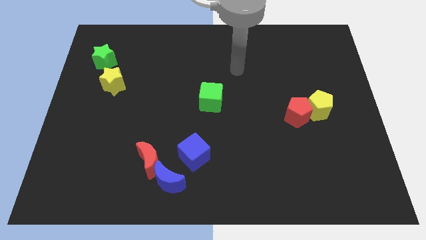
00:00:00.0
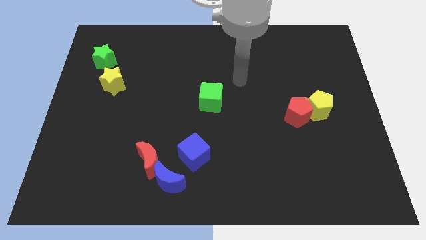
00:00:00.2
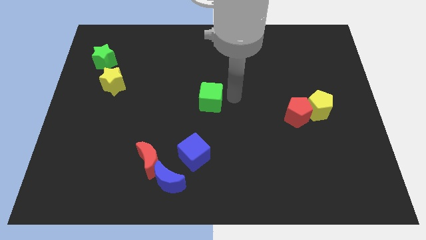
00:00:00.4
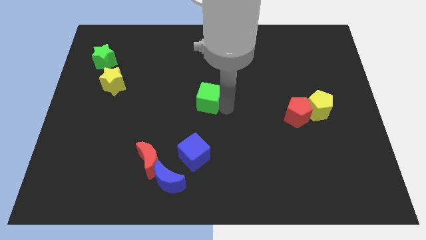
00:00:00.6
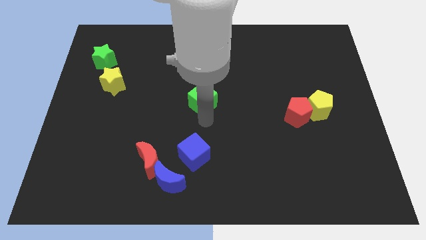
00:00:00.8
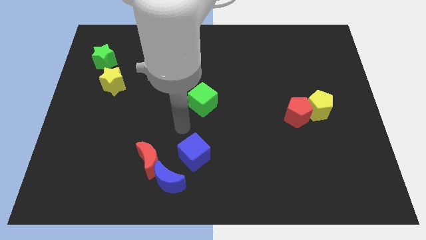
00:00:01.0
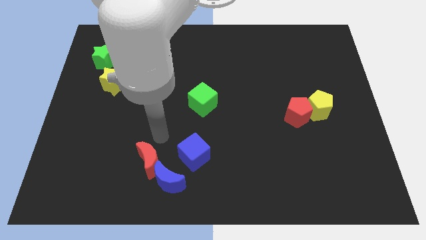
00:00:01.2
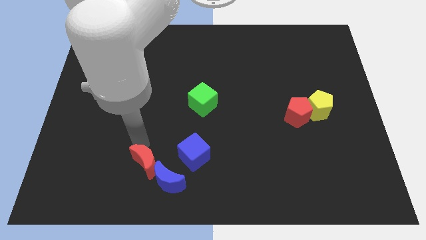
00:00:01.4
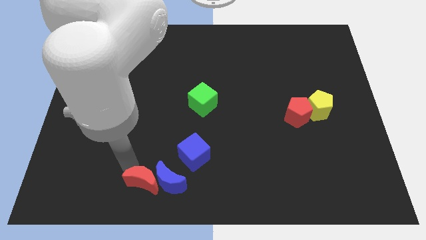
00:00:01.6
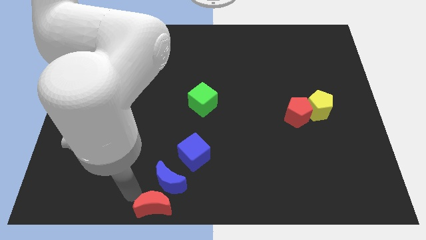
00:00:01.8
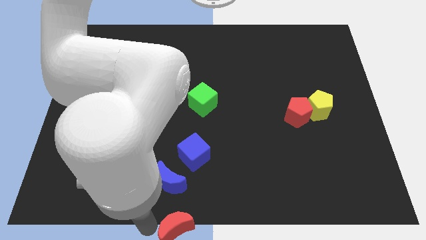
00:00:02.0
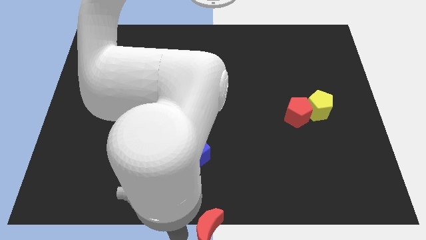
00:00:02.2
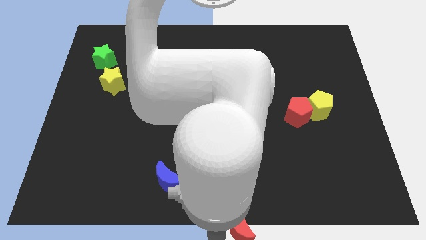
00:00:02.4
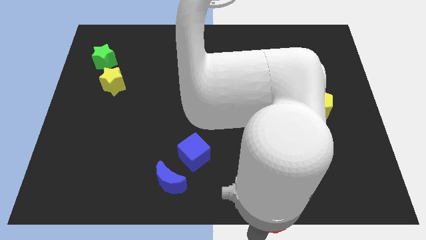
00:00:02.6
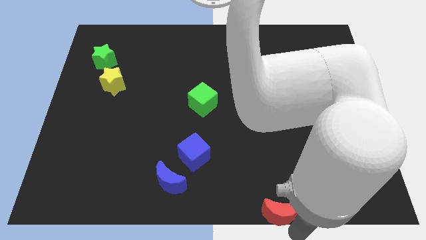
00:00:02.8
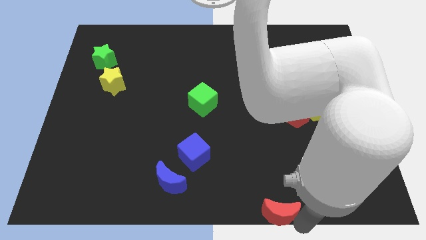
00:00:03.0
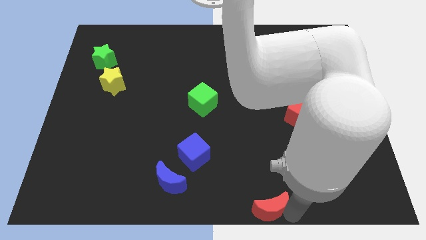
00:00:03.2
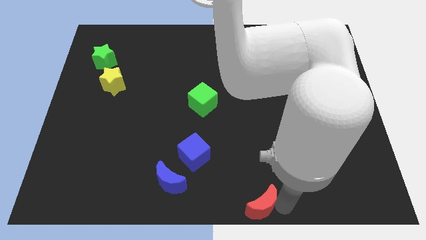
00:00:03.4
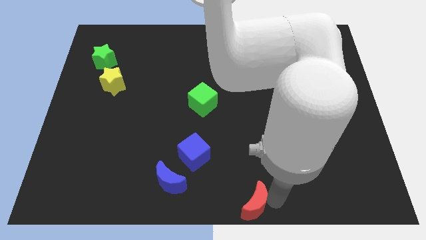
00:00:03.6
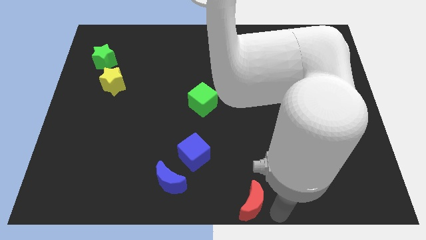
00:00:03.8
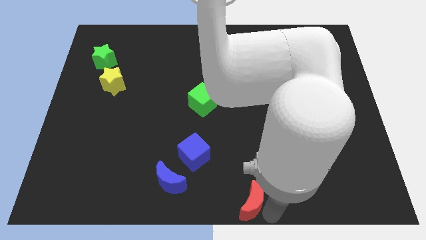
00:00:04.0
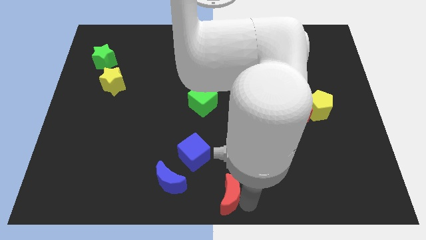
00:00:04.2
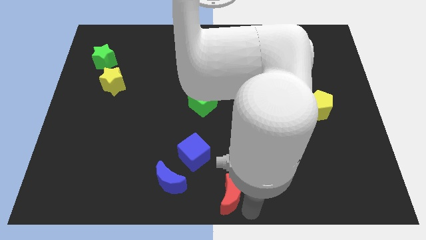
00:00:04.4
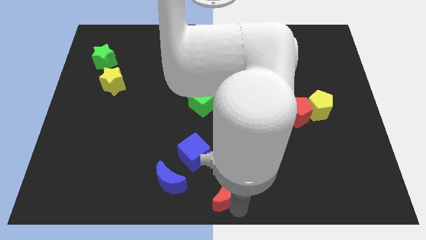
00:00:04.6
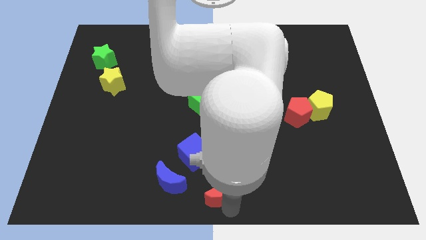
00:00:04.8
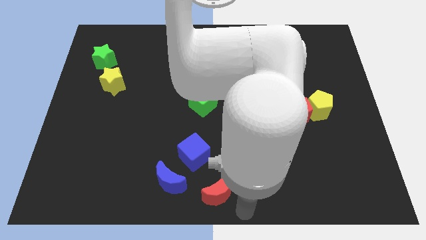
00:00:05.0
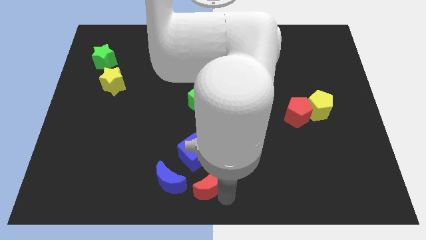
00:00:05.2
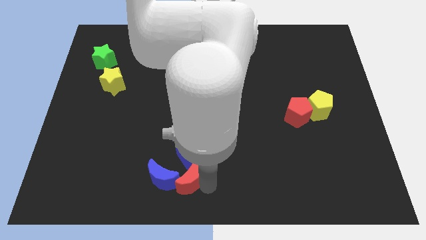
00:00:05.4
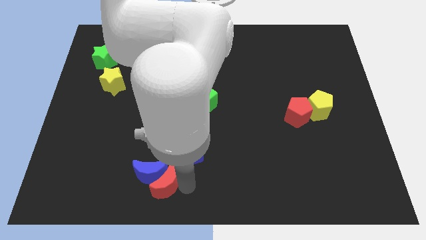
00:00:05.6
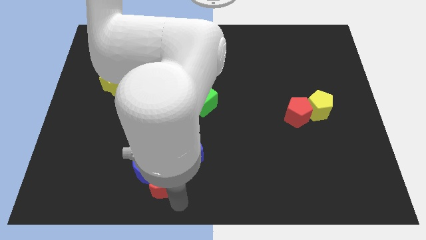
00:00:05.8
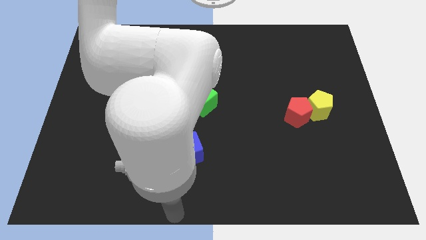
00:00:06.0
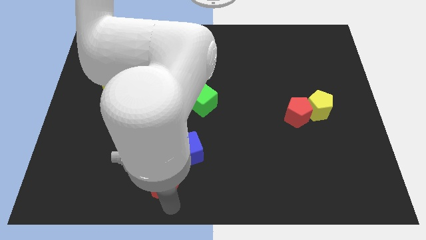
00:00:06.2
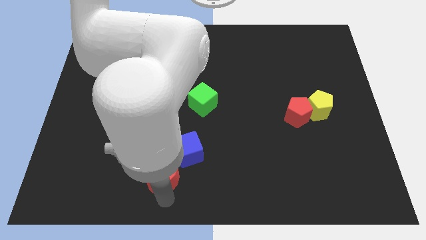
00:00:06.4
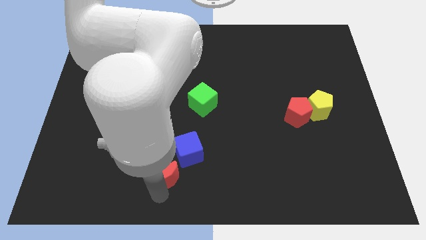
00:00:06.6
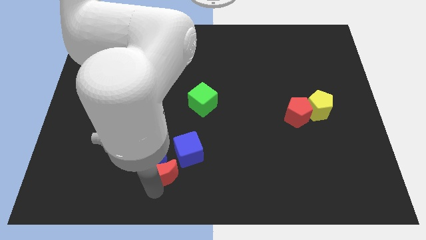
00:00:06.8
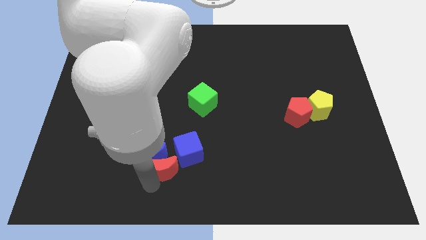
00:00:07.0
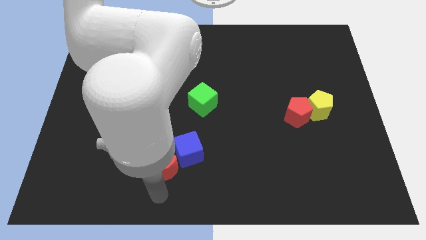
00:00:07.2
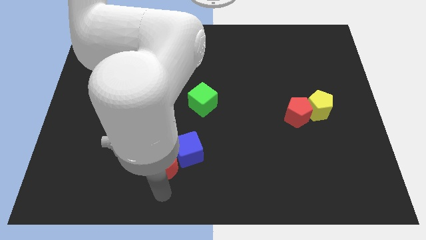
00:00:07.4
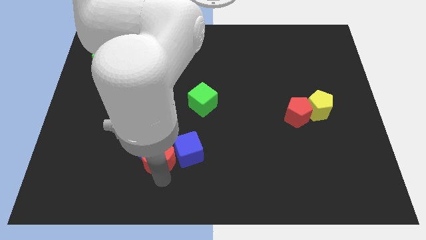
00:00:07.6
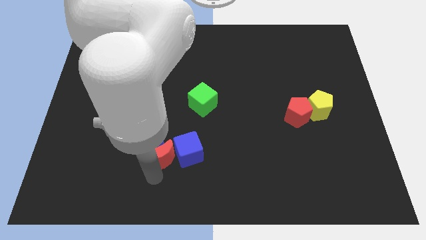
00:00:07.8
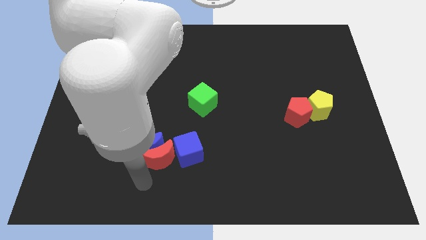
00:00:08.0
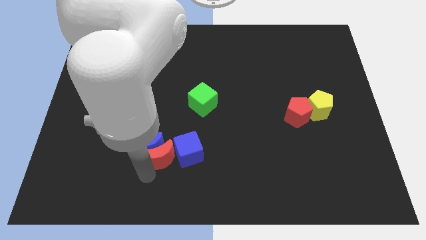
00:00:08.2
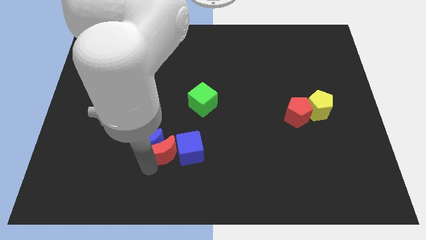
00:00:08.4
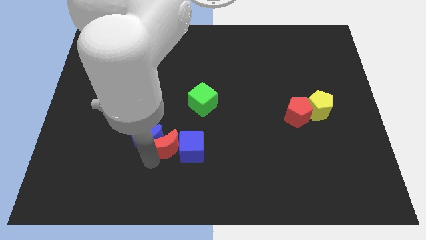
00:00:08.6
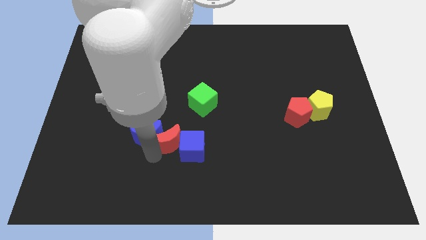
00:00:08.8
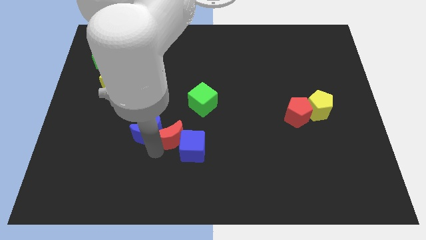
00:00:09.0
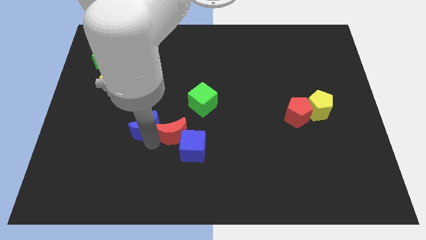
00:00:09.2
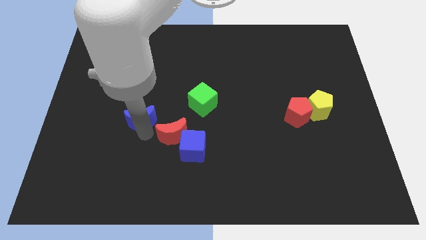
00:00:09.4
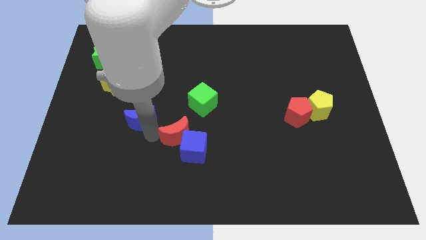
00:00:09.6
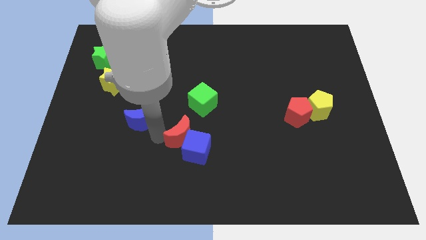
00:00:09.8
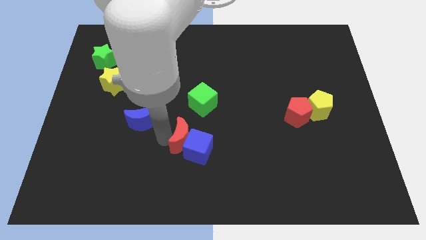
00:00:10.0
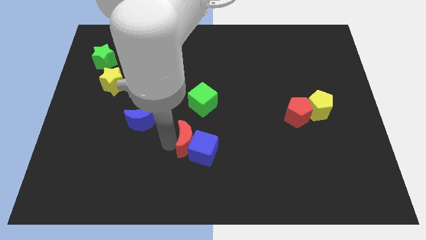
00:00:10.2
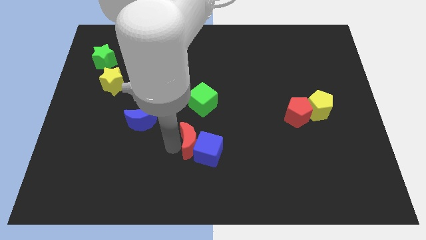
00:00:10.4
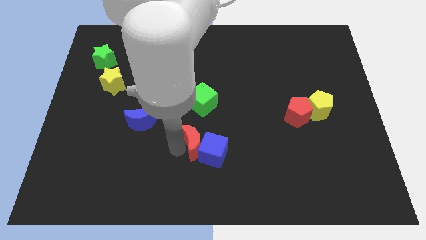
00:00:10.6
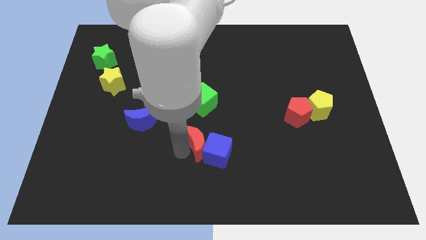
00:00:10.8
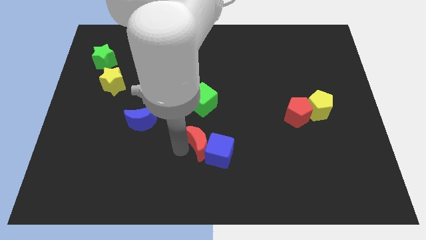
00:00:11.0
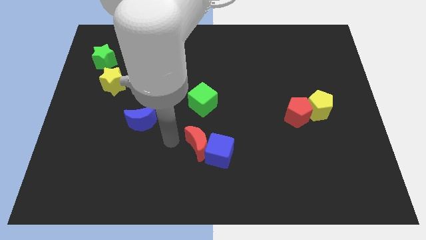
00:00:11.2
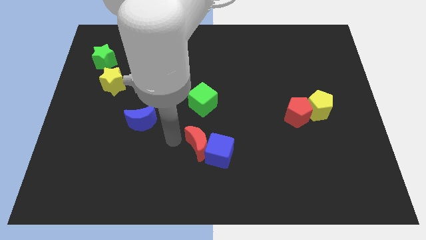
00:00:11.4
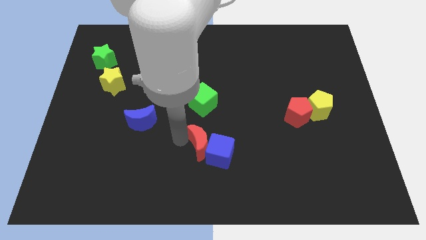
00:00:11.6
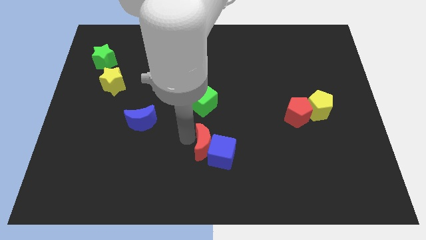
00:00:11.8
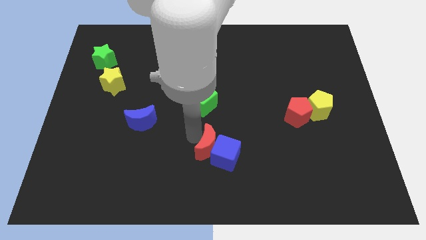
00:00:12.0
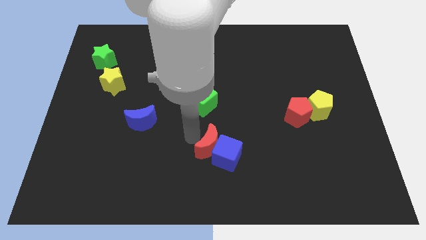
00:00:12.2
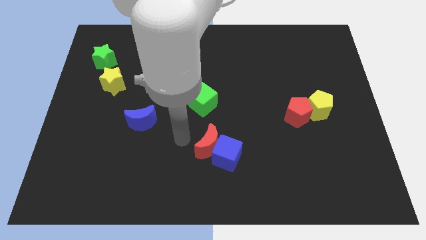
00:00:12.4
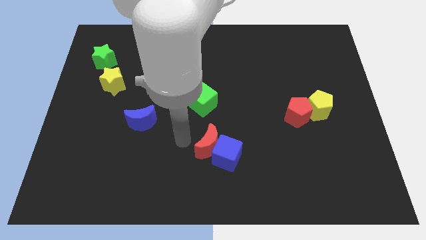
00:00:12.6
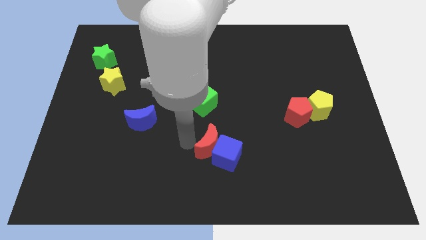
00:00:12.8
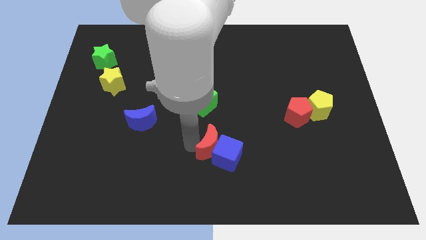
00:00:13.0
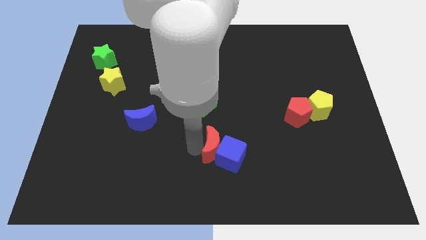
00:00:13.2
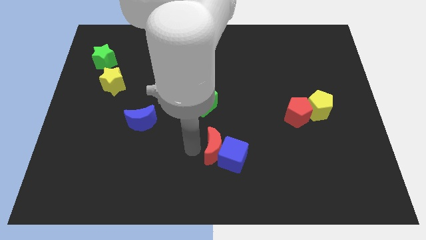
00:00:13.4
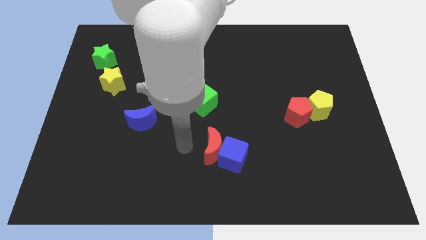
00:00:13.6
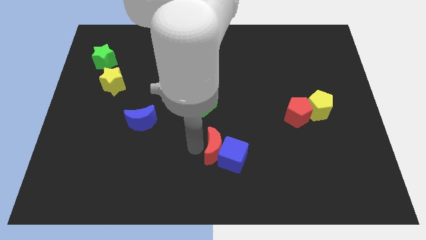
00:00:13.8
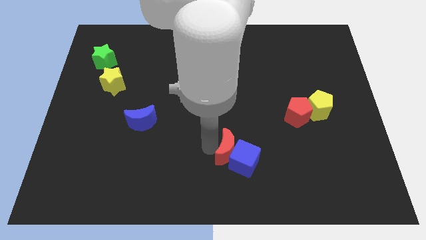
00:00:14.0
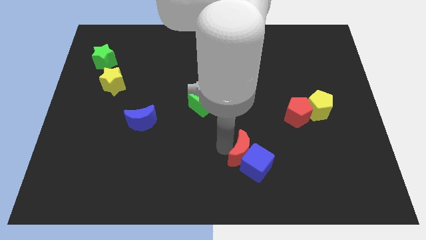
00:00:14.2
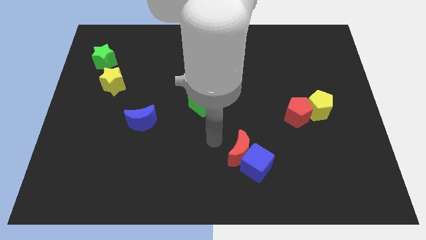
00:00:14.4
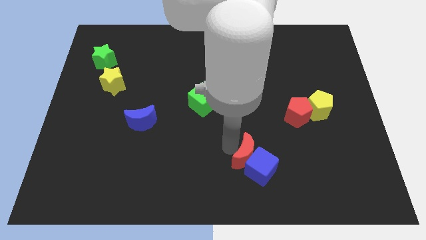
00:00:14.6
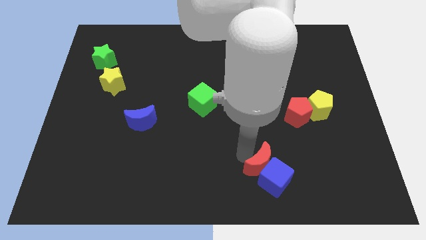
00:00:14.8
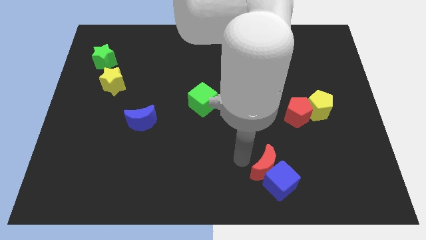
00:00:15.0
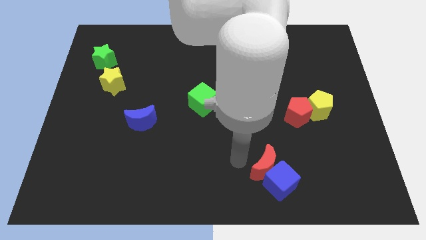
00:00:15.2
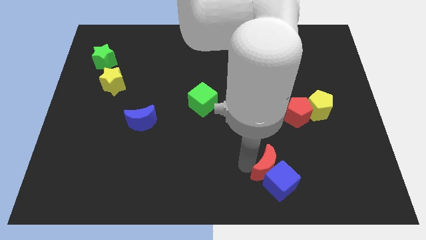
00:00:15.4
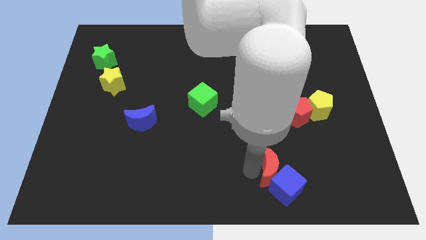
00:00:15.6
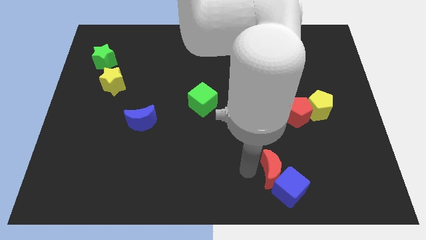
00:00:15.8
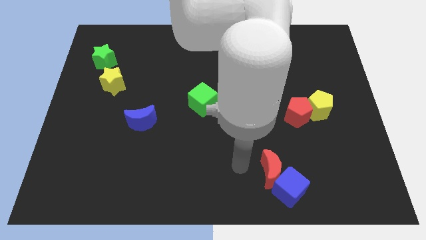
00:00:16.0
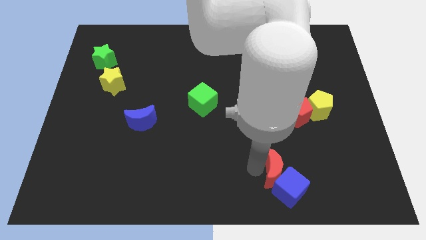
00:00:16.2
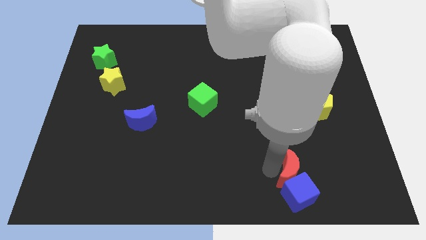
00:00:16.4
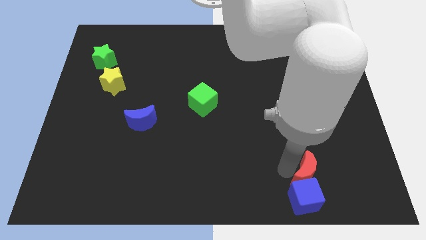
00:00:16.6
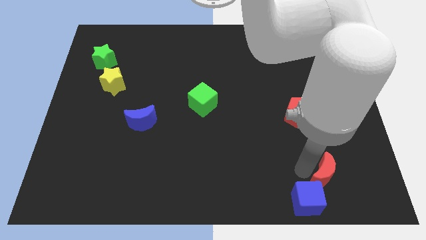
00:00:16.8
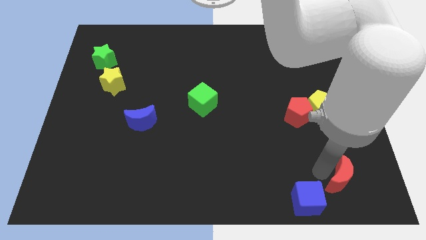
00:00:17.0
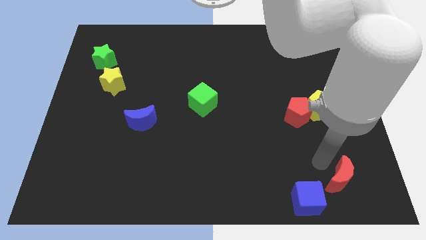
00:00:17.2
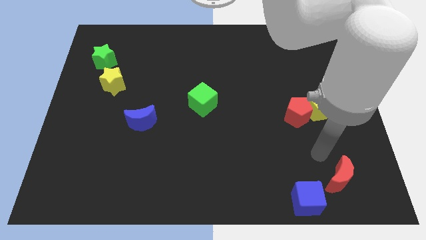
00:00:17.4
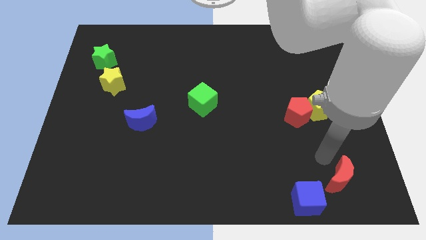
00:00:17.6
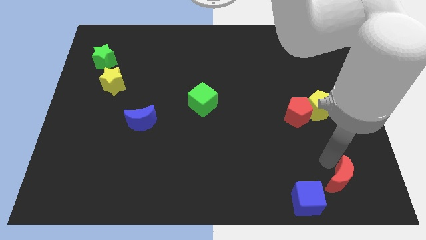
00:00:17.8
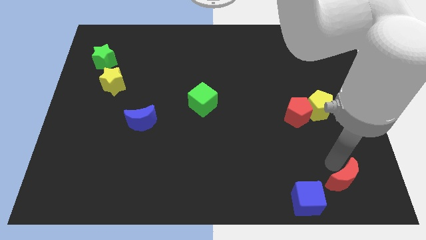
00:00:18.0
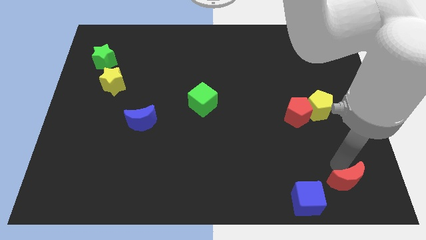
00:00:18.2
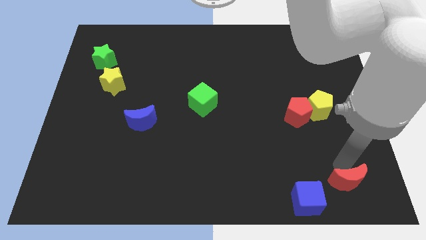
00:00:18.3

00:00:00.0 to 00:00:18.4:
move the red moon to the bottom right
